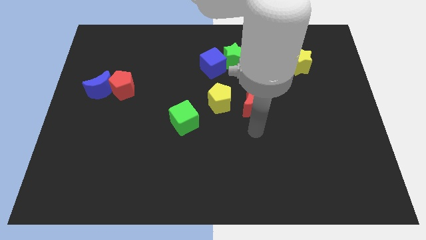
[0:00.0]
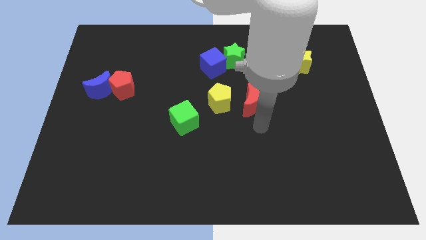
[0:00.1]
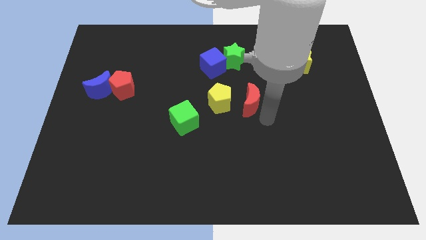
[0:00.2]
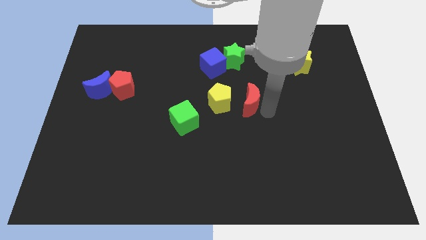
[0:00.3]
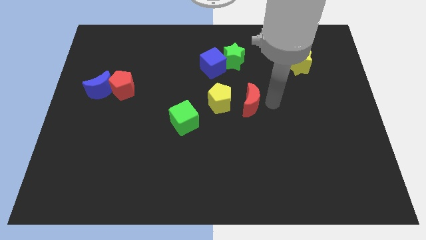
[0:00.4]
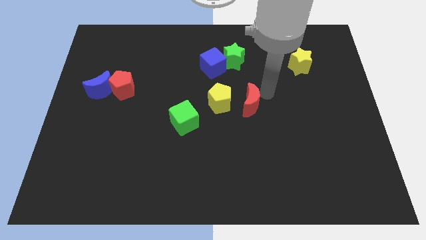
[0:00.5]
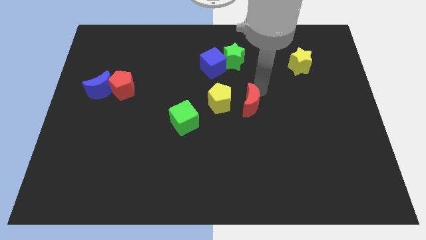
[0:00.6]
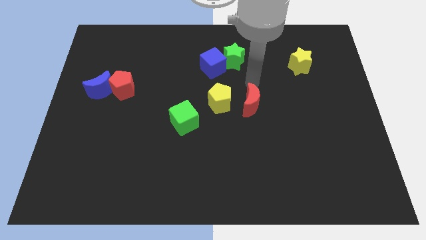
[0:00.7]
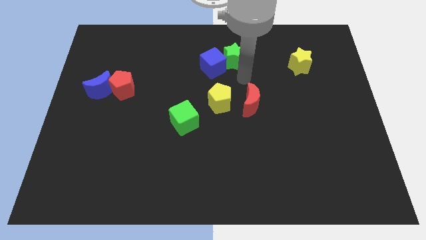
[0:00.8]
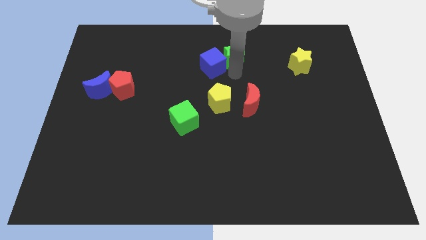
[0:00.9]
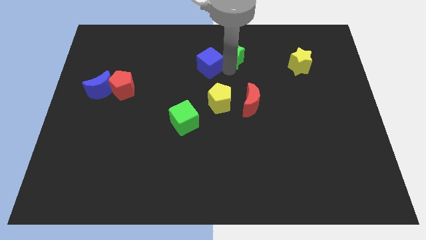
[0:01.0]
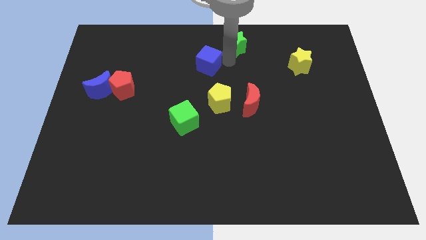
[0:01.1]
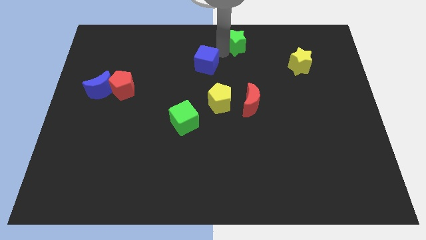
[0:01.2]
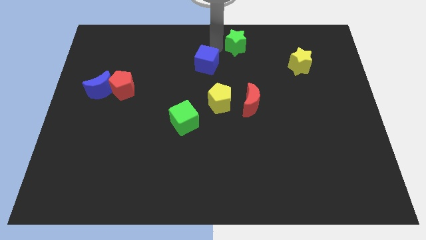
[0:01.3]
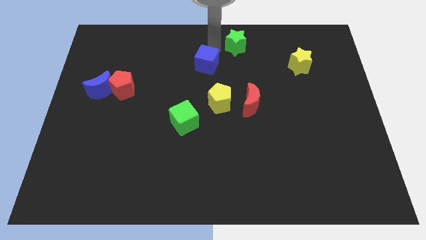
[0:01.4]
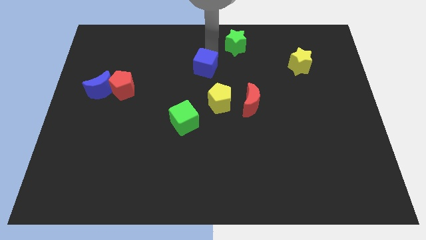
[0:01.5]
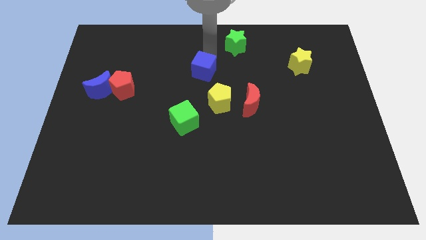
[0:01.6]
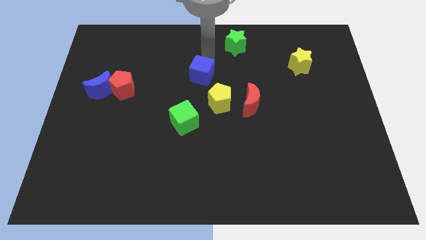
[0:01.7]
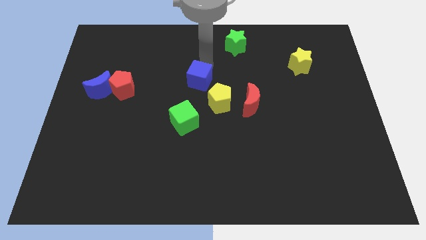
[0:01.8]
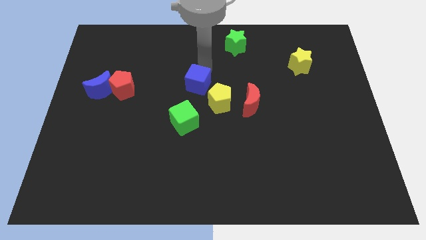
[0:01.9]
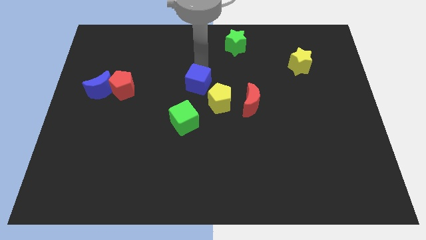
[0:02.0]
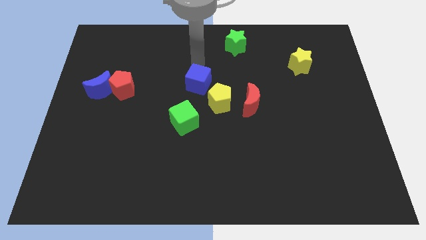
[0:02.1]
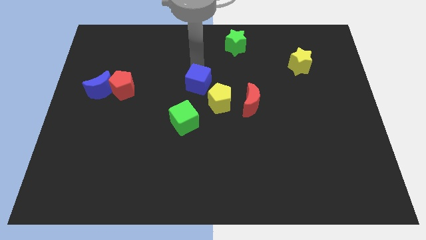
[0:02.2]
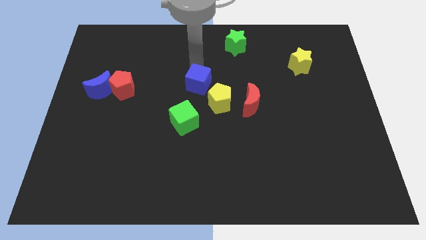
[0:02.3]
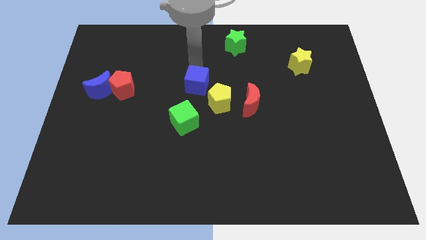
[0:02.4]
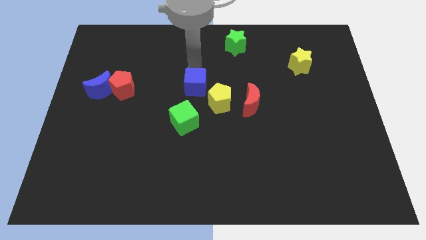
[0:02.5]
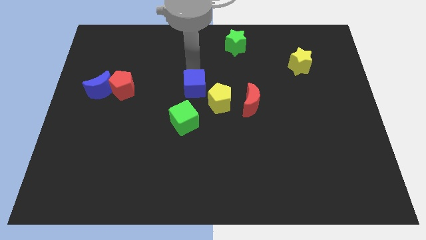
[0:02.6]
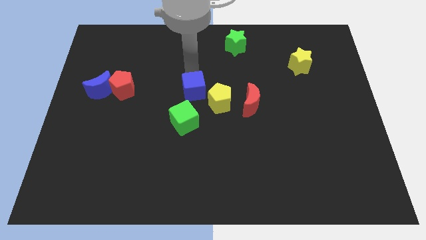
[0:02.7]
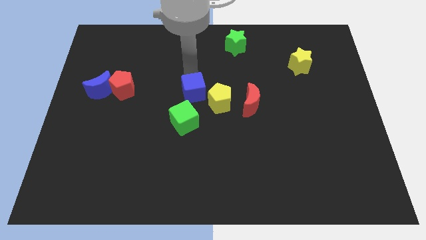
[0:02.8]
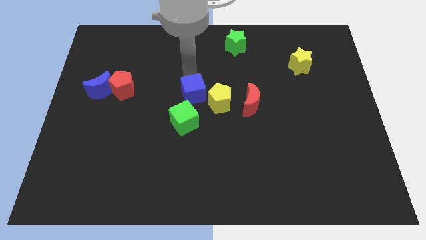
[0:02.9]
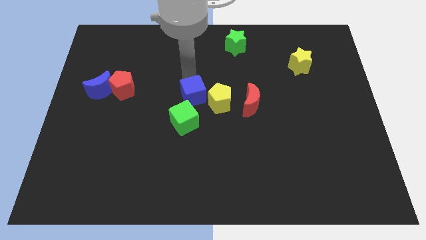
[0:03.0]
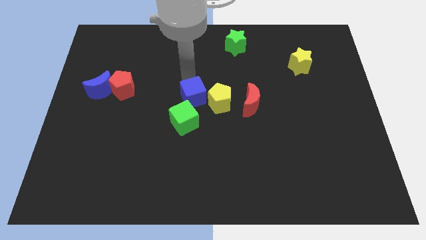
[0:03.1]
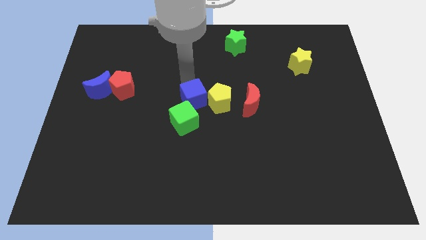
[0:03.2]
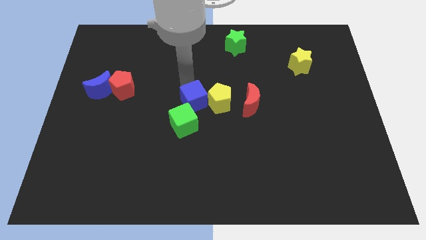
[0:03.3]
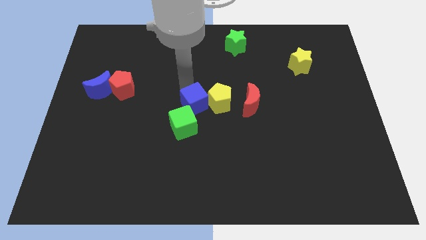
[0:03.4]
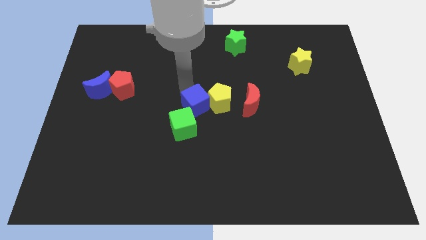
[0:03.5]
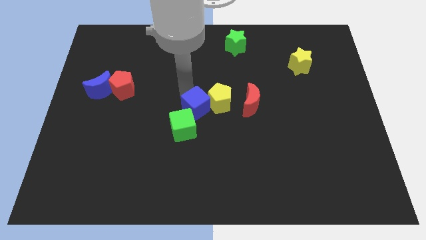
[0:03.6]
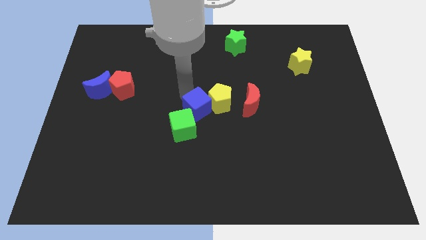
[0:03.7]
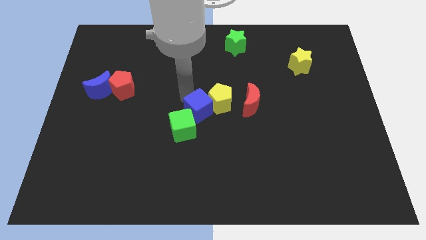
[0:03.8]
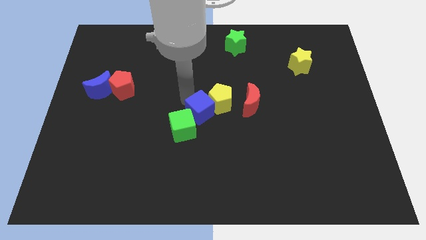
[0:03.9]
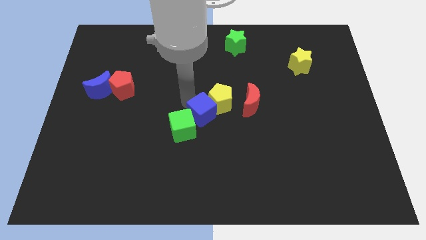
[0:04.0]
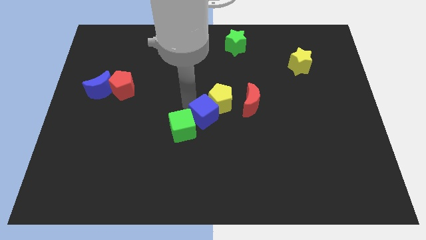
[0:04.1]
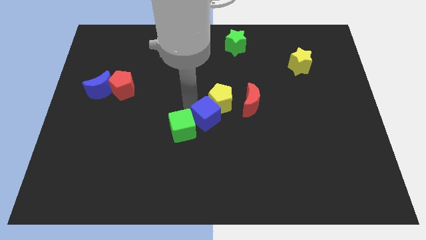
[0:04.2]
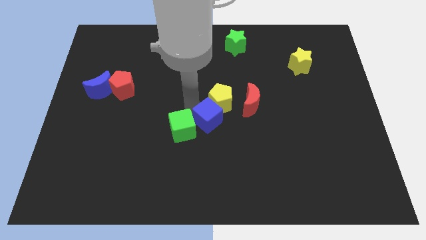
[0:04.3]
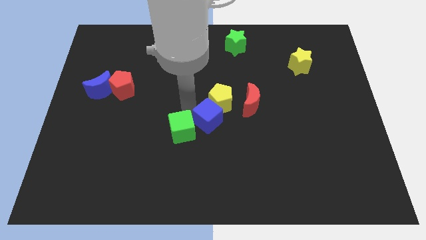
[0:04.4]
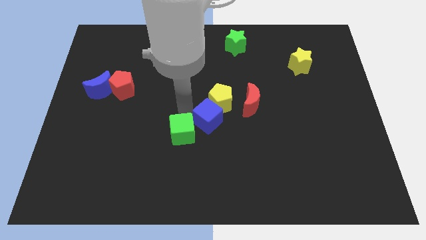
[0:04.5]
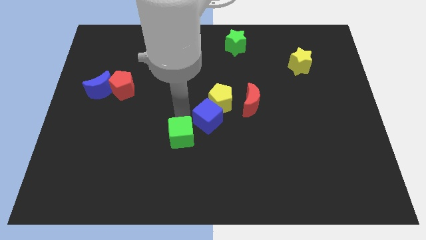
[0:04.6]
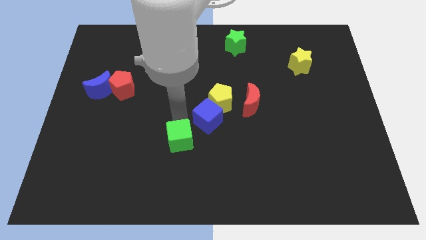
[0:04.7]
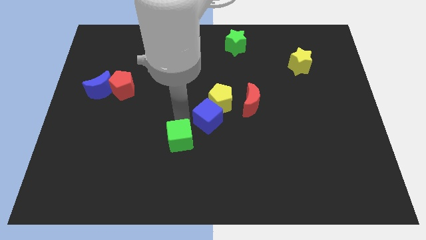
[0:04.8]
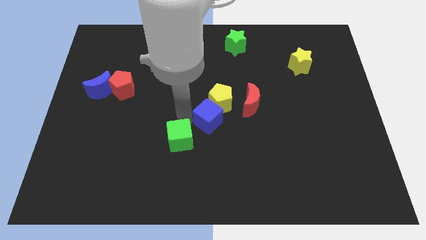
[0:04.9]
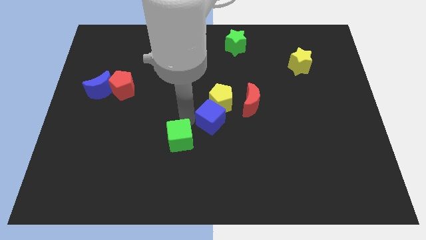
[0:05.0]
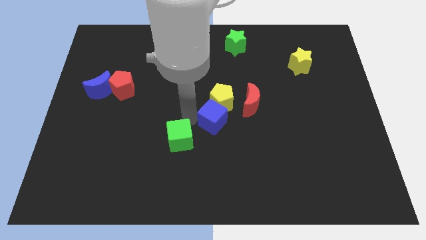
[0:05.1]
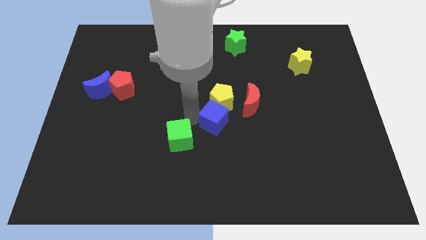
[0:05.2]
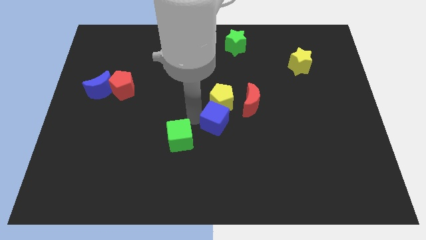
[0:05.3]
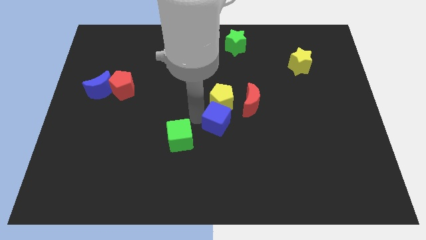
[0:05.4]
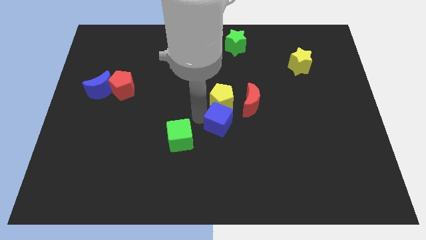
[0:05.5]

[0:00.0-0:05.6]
push the blue cube to the bottom right side of the yellow pentagon
